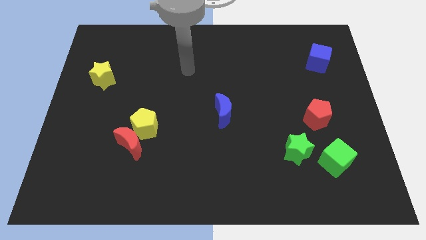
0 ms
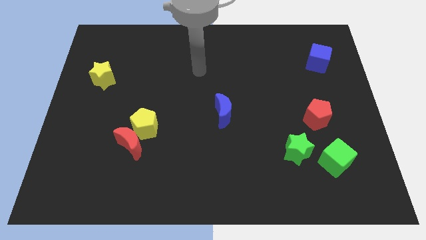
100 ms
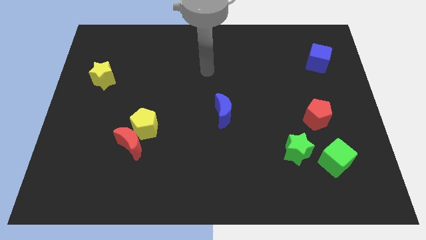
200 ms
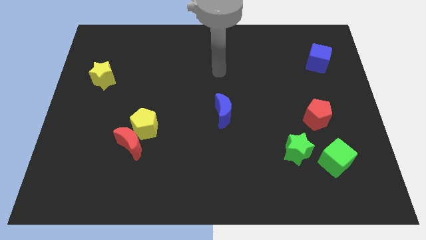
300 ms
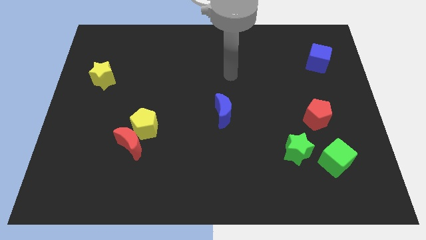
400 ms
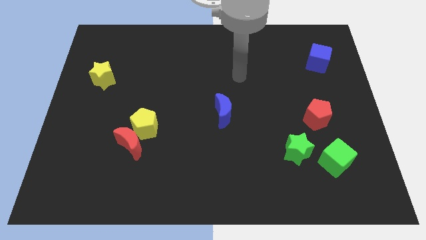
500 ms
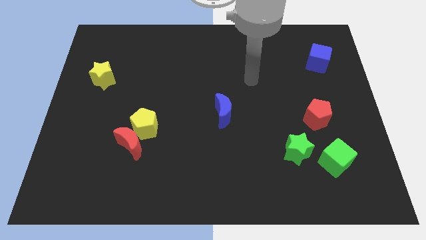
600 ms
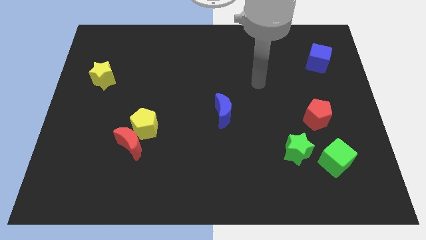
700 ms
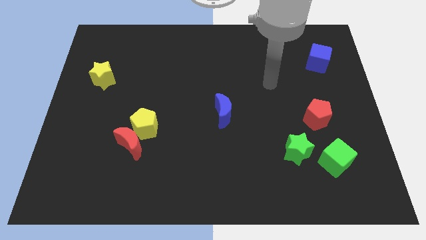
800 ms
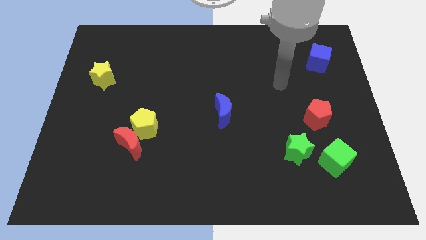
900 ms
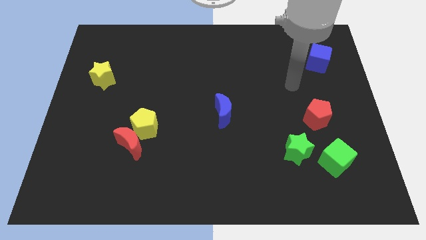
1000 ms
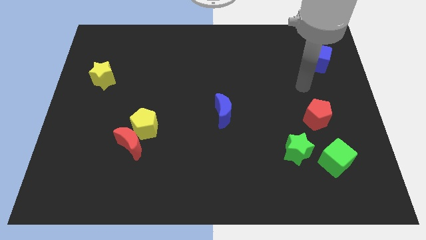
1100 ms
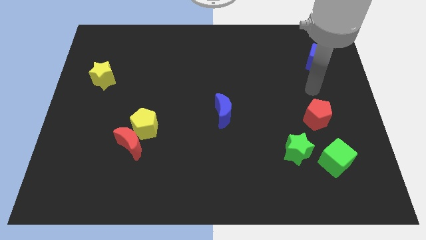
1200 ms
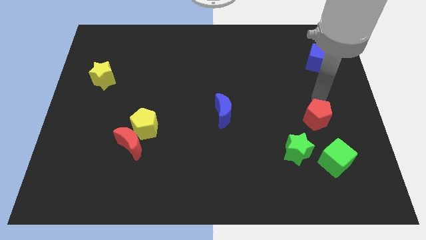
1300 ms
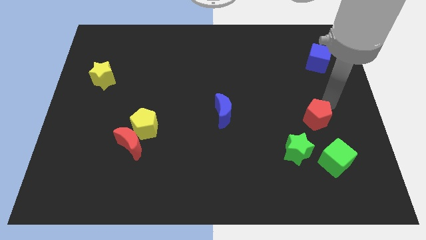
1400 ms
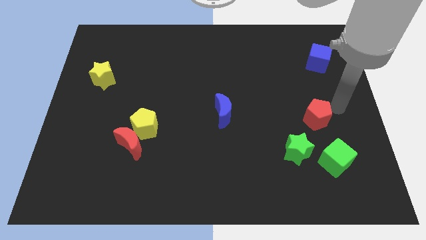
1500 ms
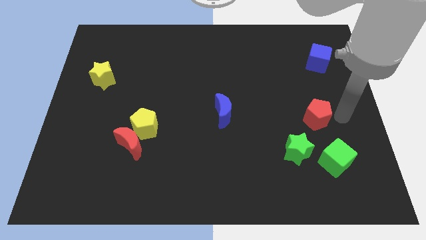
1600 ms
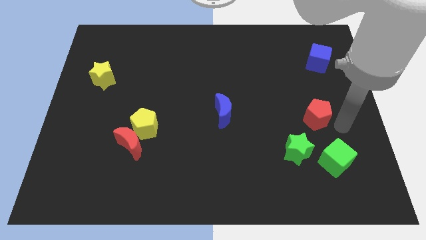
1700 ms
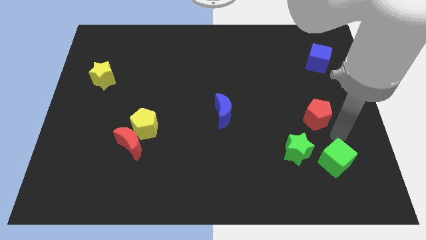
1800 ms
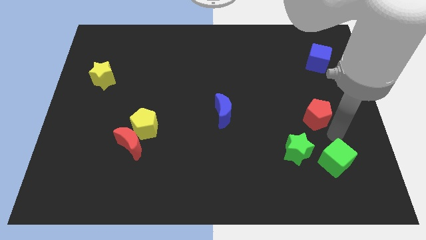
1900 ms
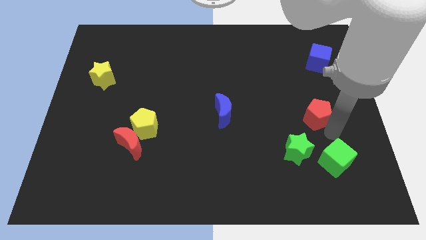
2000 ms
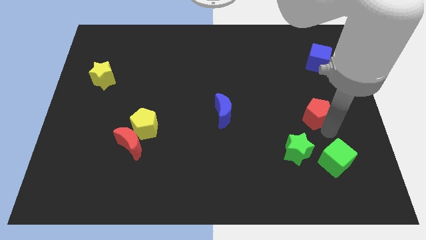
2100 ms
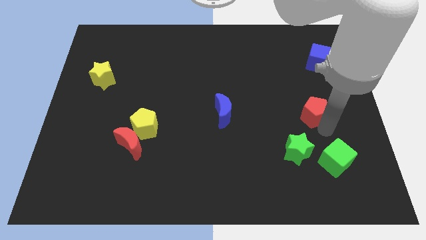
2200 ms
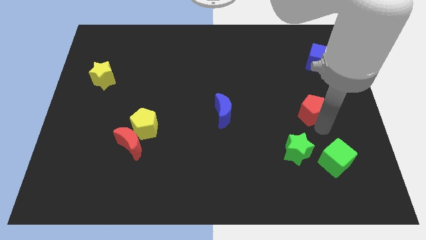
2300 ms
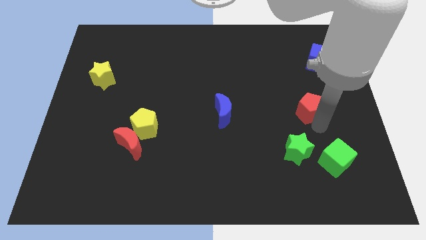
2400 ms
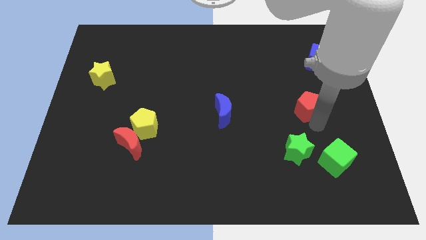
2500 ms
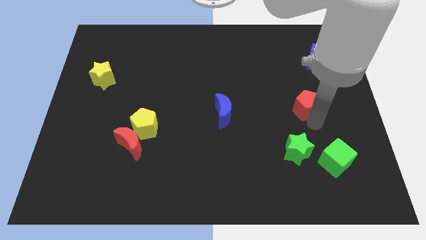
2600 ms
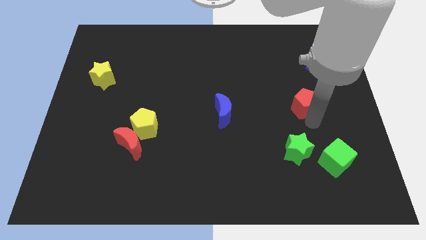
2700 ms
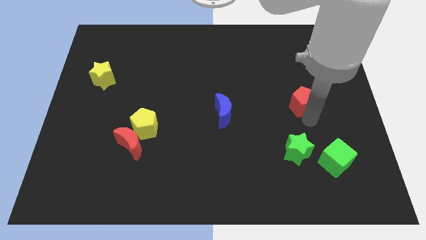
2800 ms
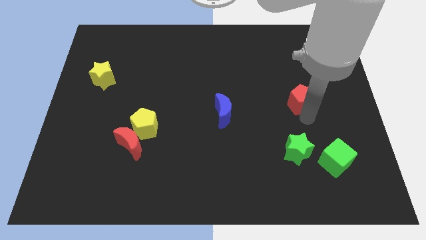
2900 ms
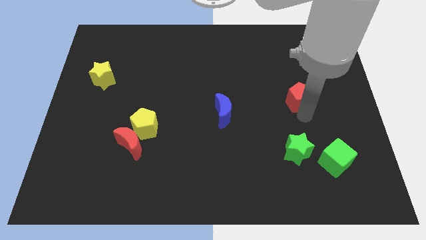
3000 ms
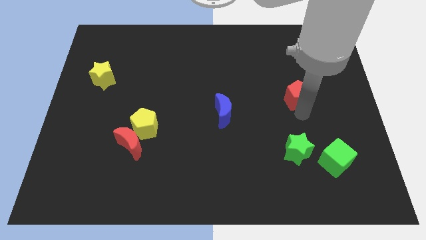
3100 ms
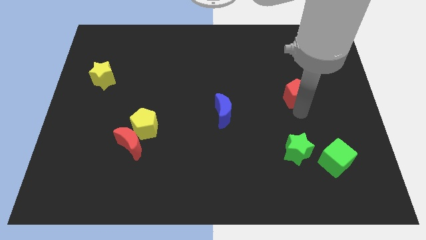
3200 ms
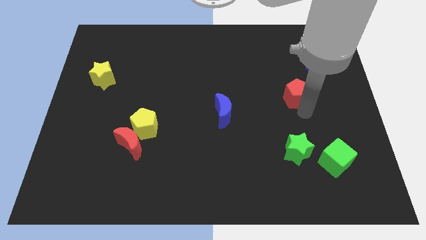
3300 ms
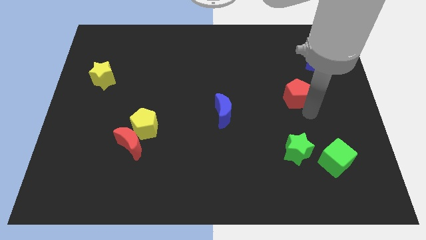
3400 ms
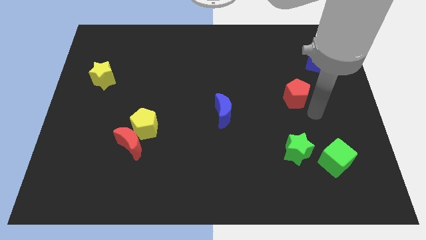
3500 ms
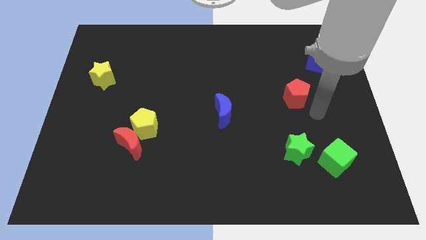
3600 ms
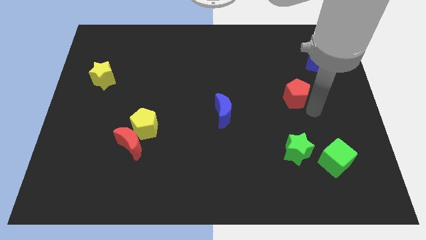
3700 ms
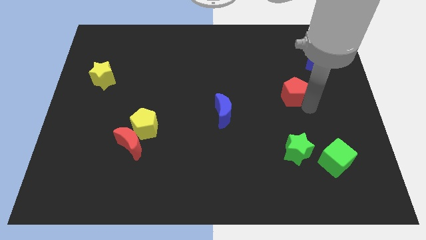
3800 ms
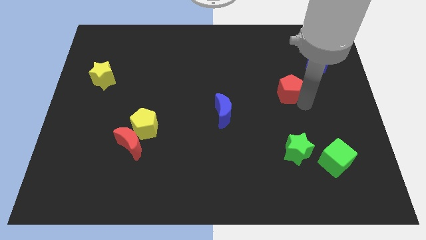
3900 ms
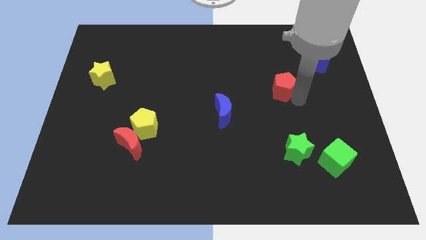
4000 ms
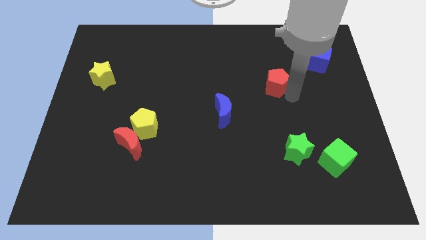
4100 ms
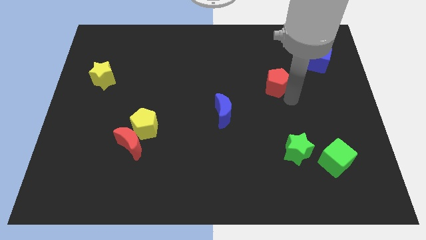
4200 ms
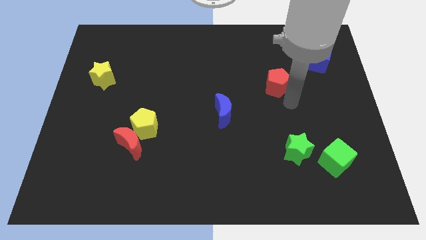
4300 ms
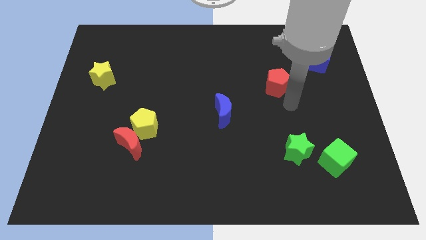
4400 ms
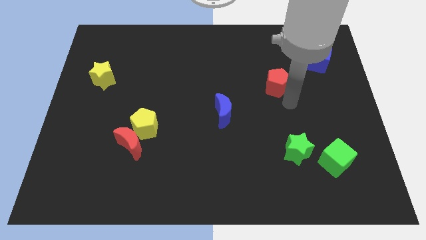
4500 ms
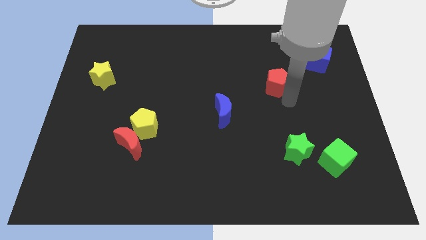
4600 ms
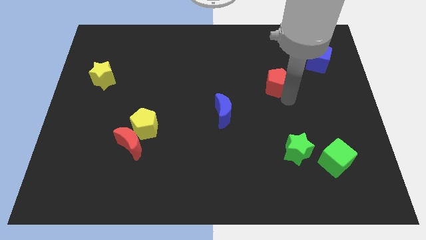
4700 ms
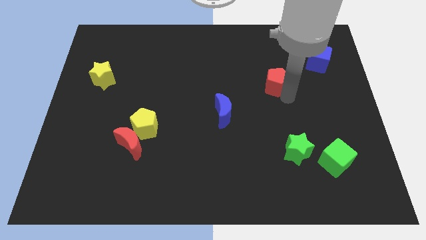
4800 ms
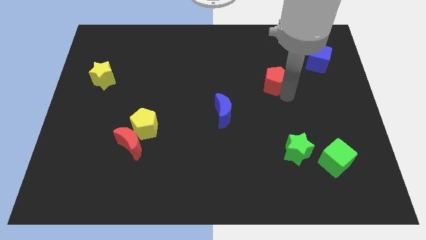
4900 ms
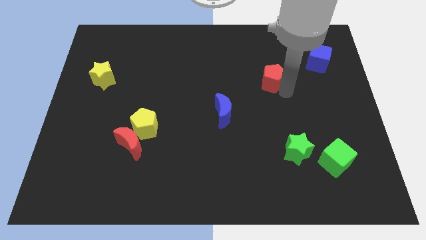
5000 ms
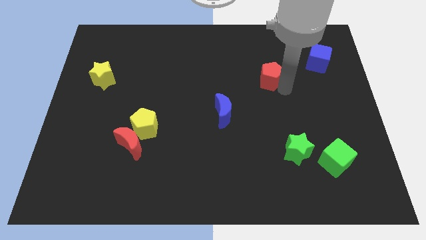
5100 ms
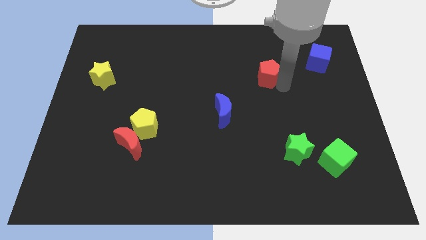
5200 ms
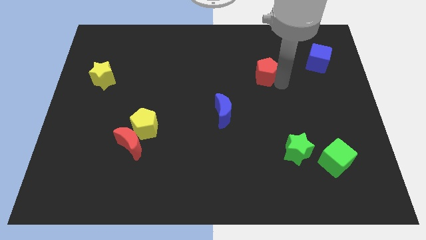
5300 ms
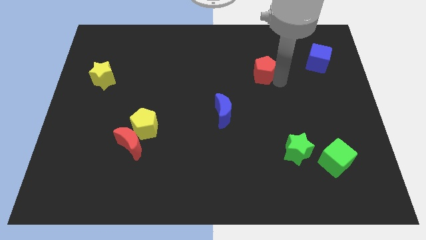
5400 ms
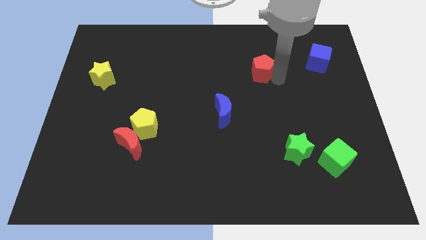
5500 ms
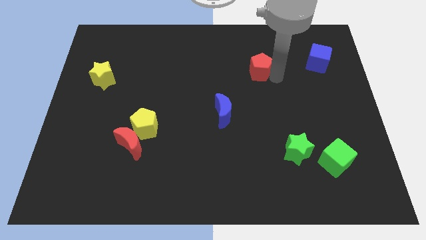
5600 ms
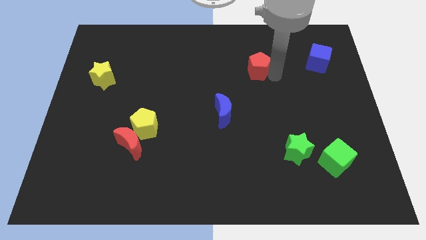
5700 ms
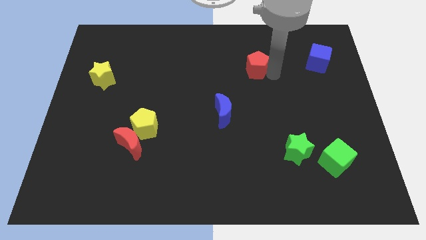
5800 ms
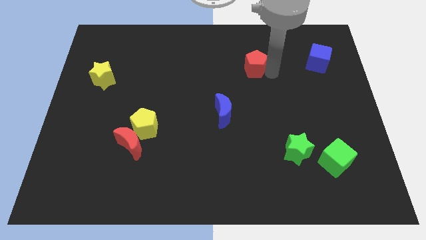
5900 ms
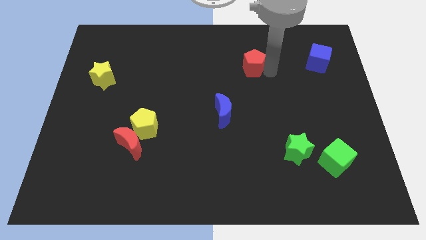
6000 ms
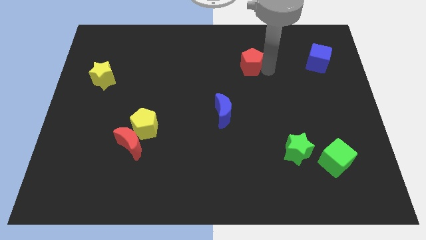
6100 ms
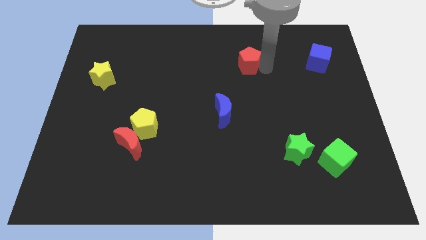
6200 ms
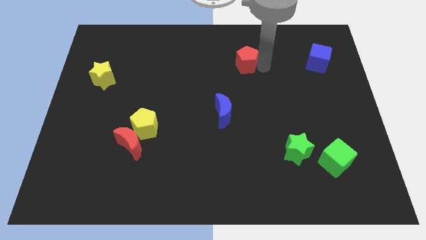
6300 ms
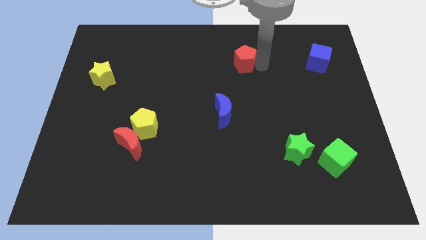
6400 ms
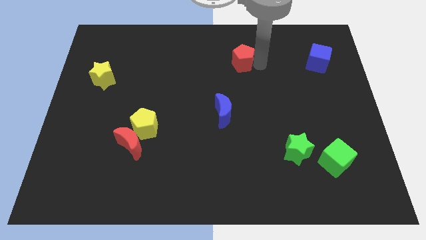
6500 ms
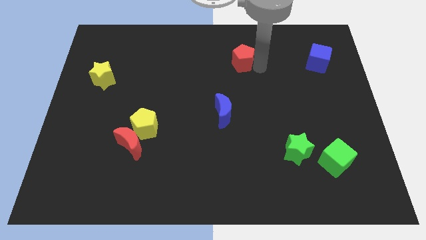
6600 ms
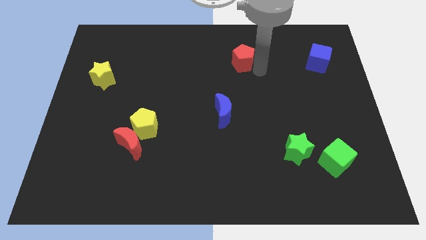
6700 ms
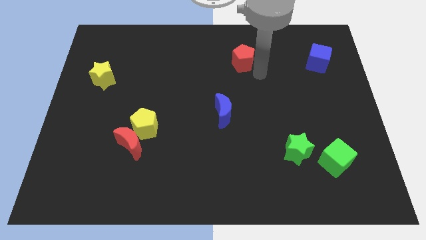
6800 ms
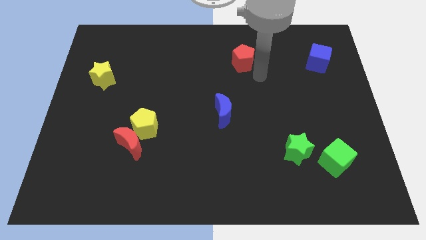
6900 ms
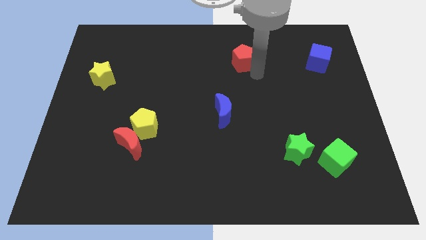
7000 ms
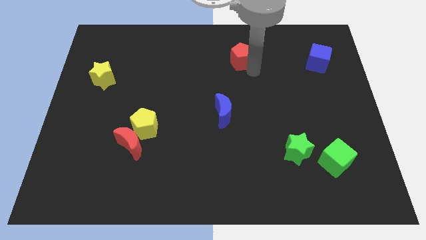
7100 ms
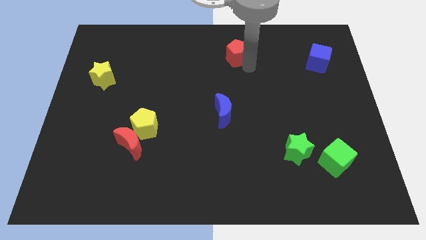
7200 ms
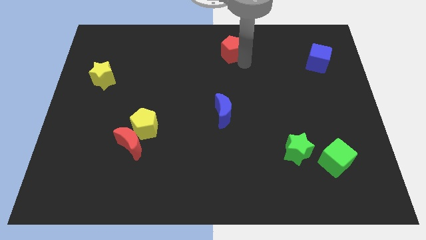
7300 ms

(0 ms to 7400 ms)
move the red pentagon to the top side
